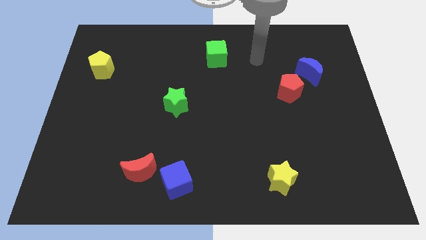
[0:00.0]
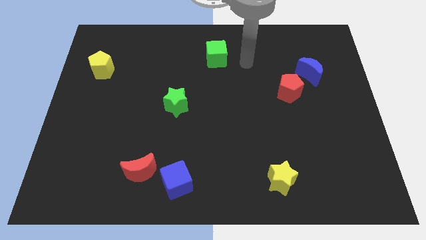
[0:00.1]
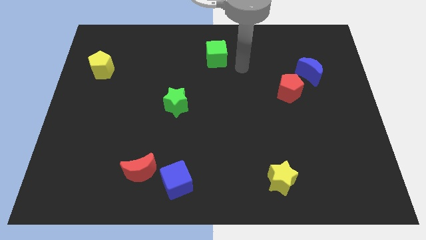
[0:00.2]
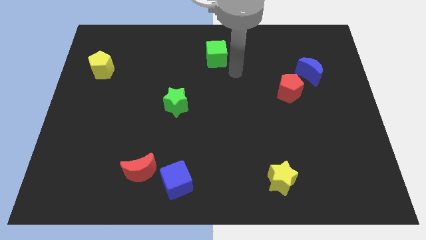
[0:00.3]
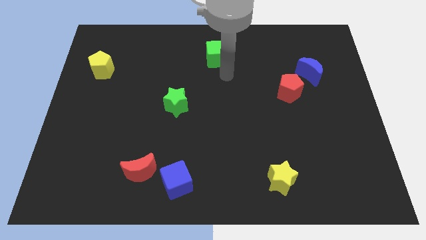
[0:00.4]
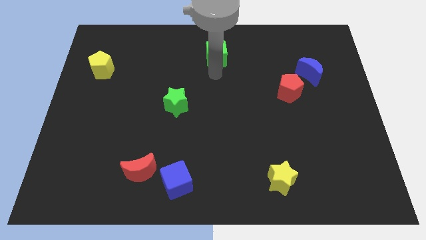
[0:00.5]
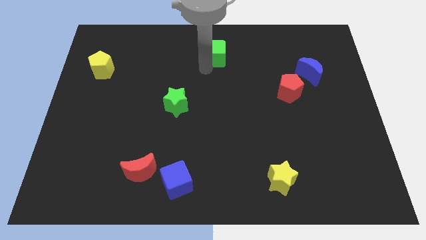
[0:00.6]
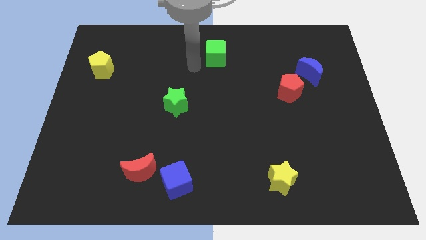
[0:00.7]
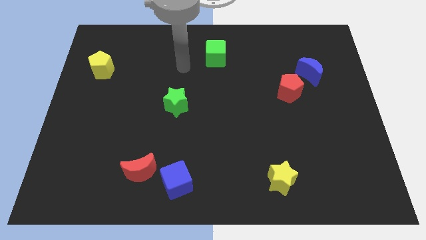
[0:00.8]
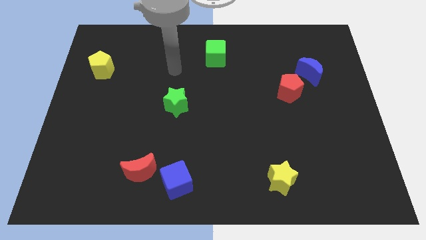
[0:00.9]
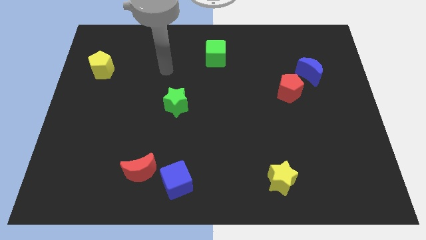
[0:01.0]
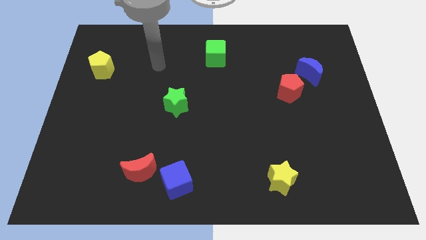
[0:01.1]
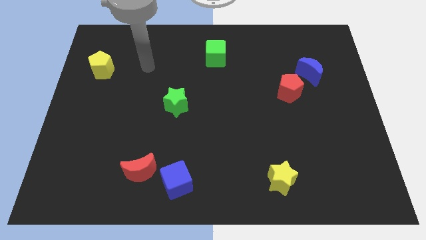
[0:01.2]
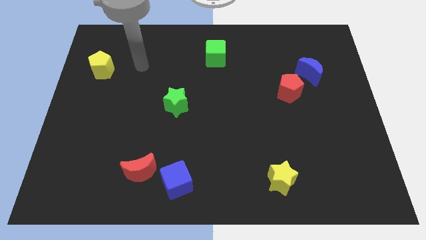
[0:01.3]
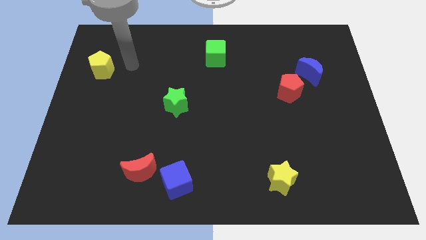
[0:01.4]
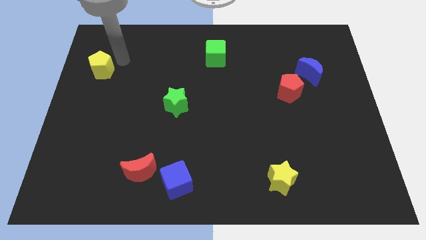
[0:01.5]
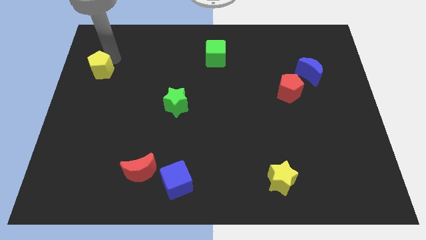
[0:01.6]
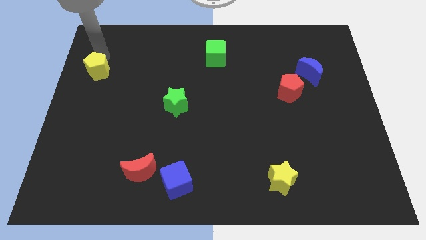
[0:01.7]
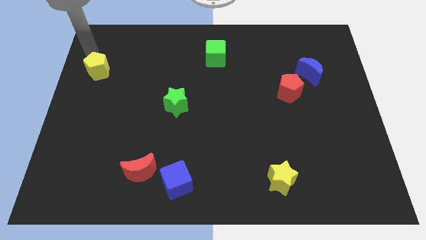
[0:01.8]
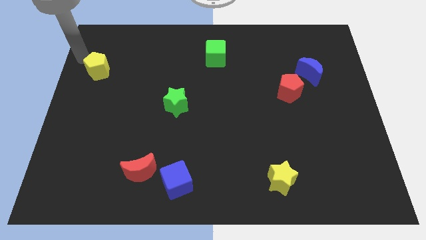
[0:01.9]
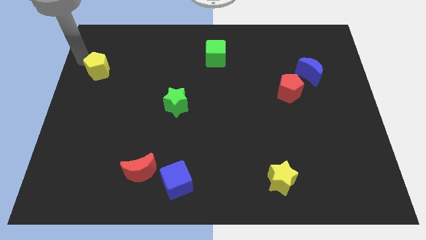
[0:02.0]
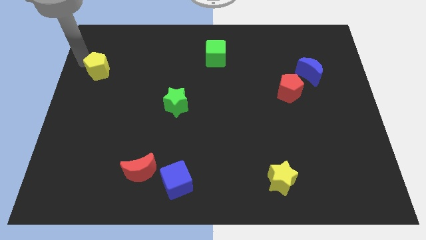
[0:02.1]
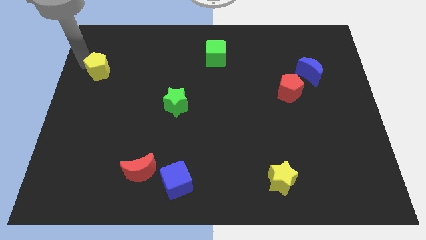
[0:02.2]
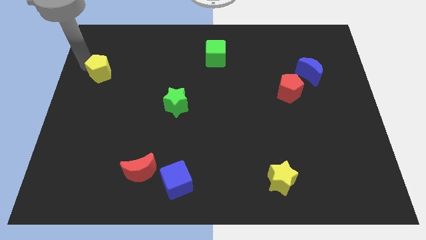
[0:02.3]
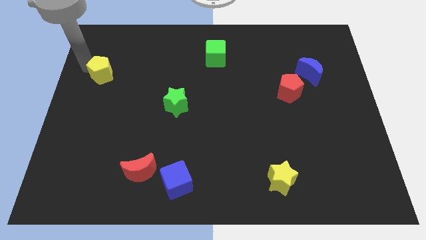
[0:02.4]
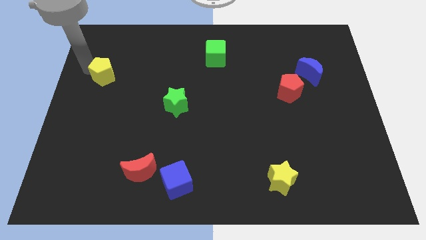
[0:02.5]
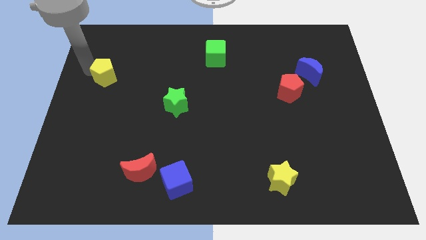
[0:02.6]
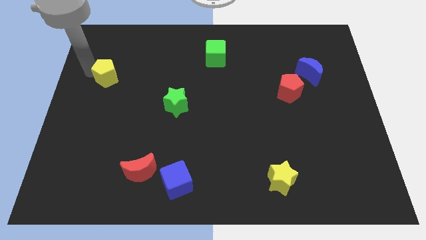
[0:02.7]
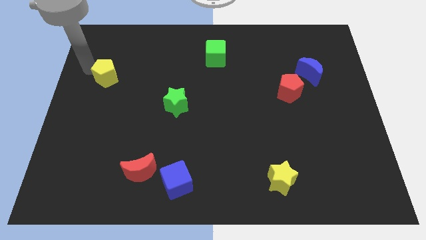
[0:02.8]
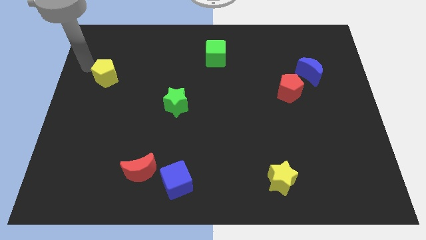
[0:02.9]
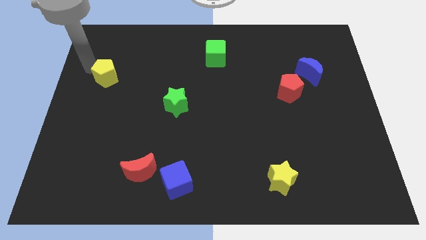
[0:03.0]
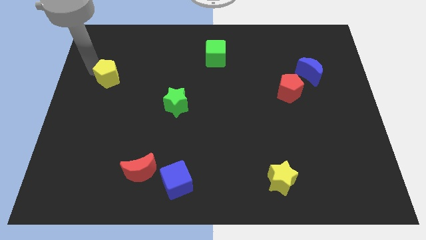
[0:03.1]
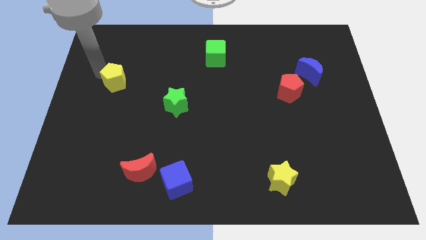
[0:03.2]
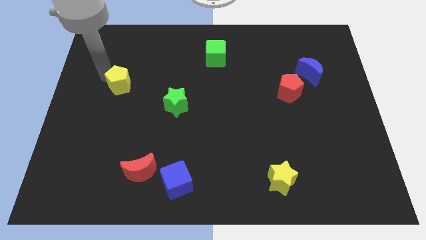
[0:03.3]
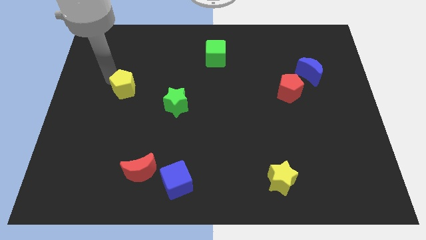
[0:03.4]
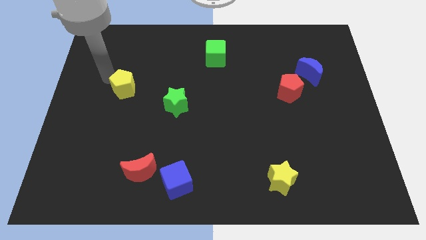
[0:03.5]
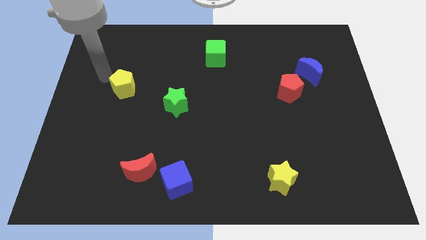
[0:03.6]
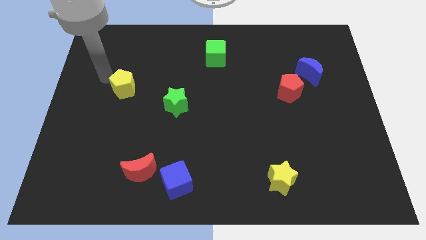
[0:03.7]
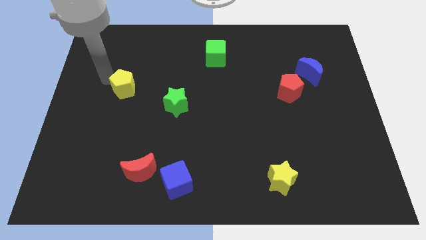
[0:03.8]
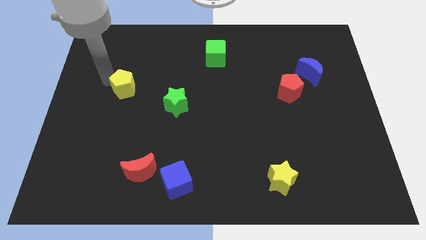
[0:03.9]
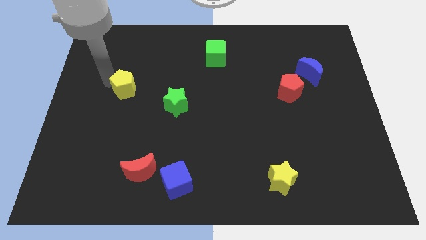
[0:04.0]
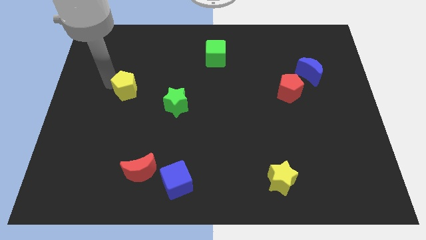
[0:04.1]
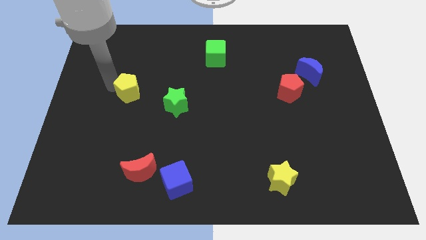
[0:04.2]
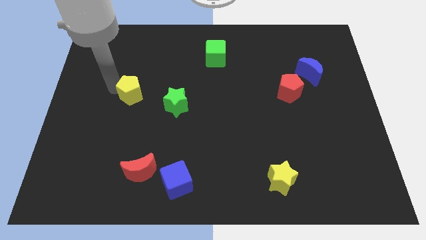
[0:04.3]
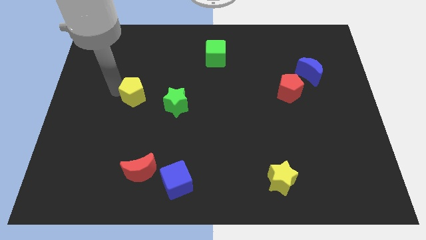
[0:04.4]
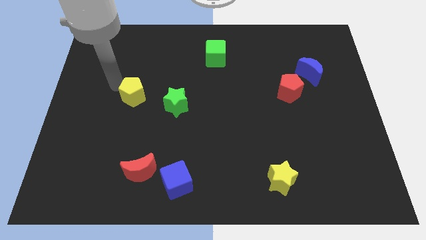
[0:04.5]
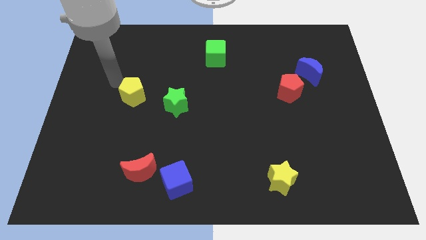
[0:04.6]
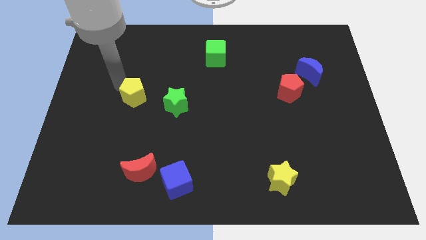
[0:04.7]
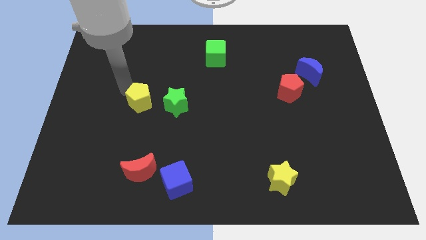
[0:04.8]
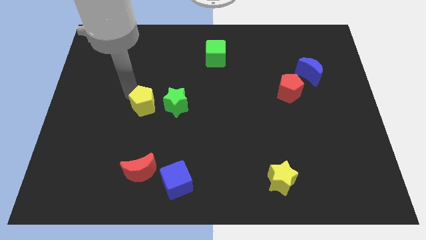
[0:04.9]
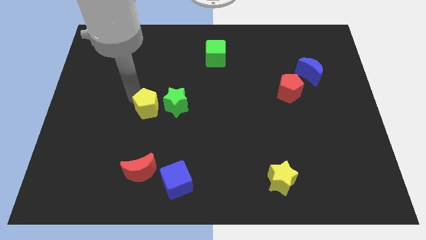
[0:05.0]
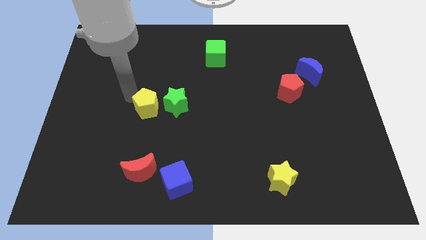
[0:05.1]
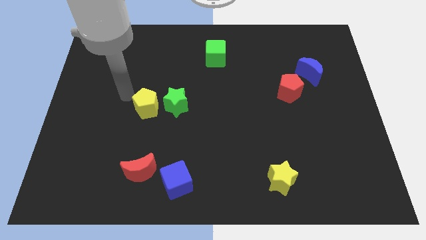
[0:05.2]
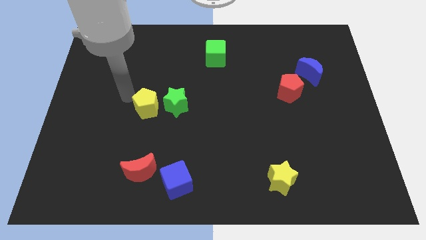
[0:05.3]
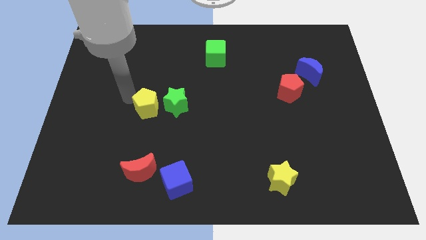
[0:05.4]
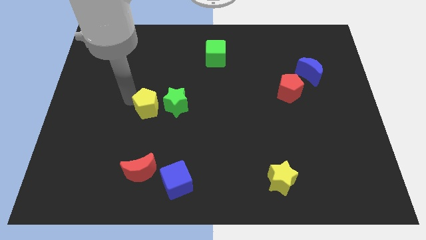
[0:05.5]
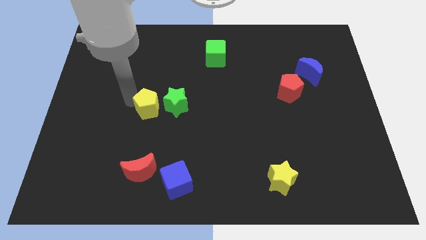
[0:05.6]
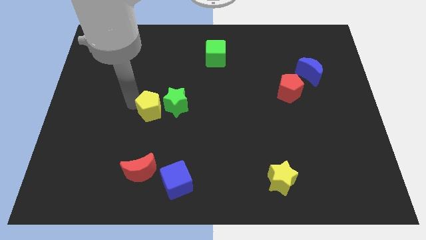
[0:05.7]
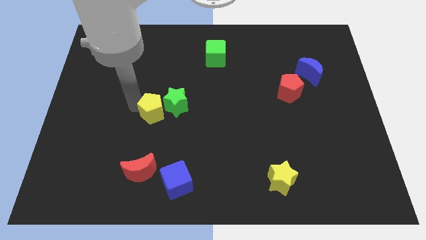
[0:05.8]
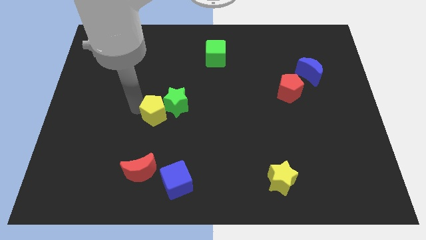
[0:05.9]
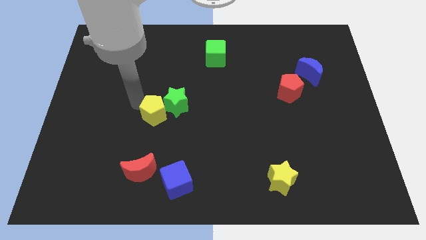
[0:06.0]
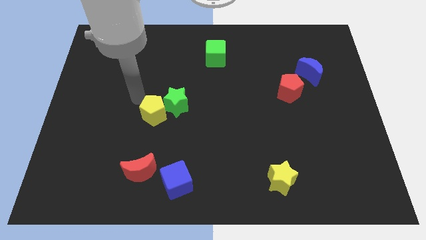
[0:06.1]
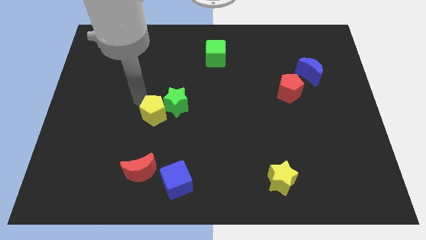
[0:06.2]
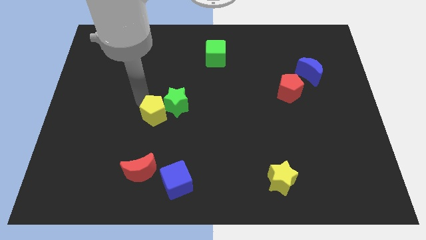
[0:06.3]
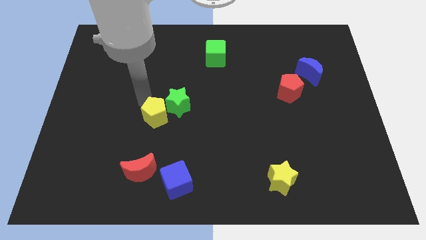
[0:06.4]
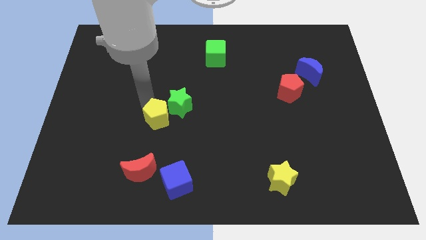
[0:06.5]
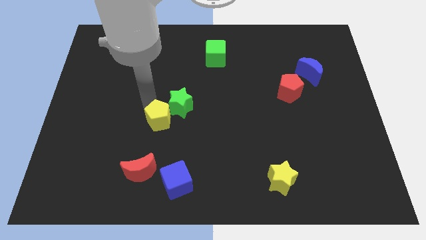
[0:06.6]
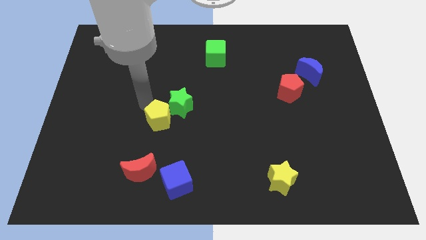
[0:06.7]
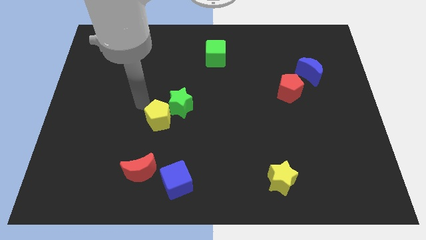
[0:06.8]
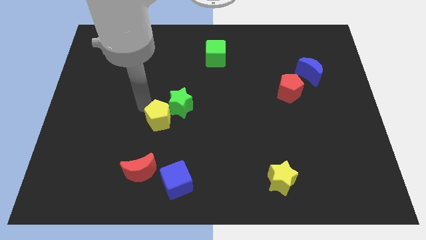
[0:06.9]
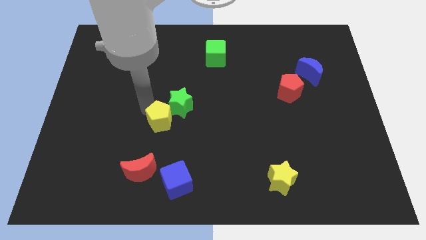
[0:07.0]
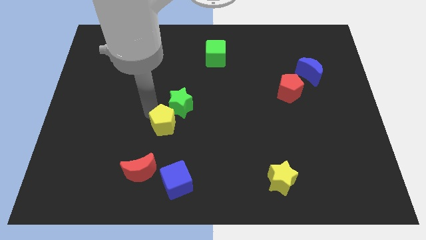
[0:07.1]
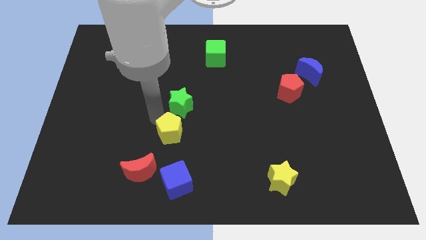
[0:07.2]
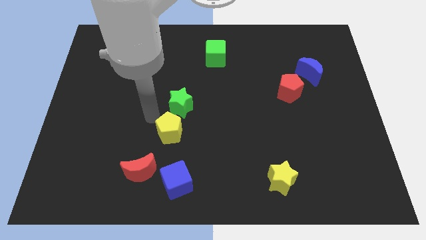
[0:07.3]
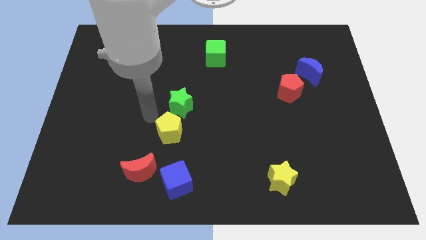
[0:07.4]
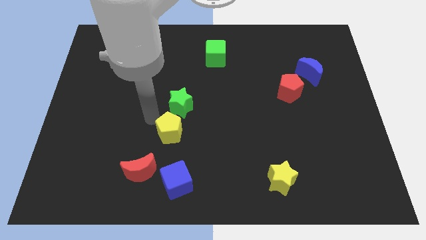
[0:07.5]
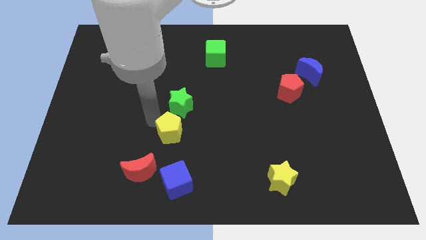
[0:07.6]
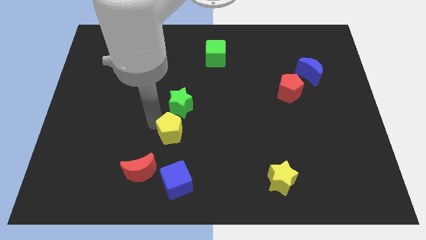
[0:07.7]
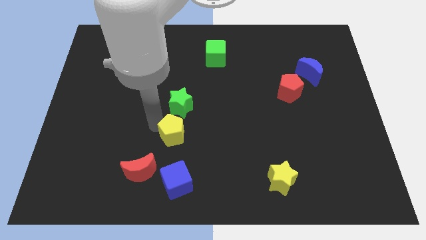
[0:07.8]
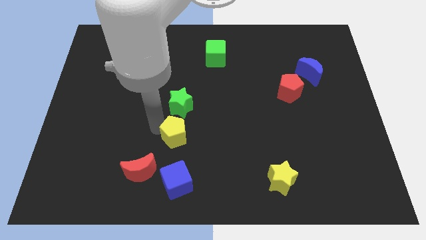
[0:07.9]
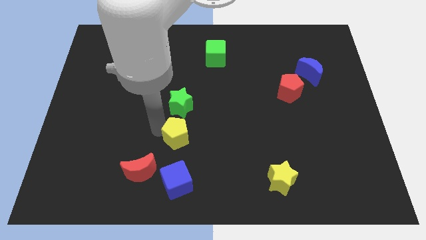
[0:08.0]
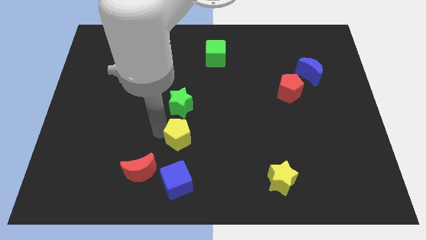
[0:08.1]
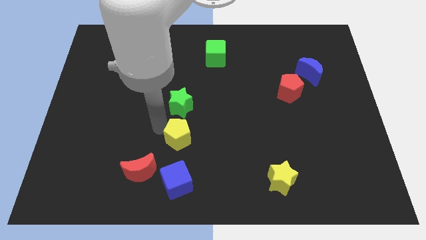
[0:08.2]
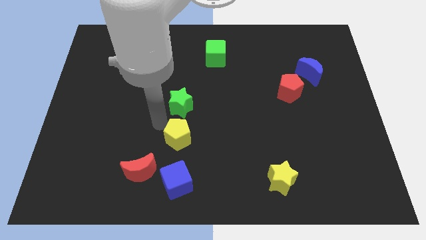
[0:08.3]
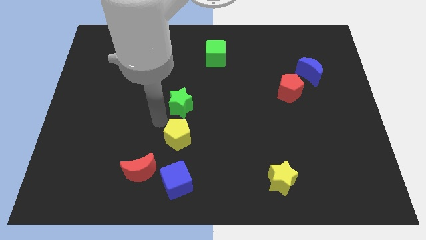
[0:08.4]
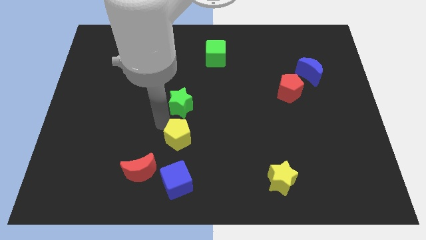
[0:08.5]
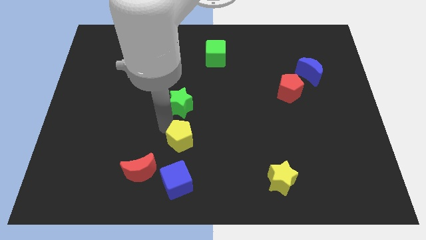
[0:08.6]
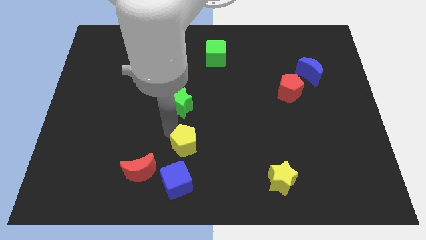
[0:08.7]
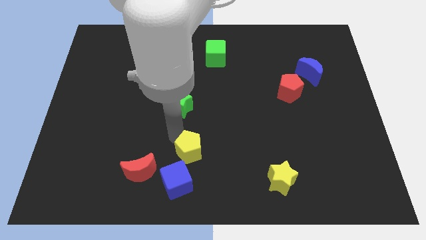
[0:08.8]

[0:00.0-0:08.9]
put the yellow pentagon to the top right of the blue cube
